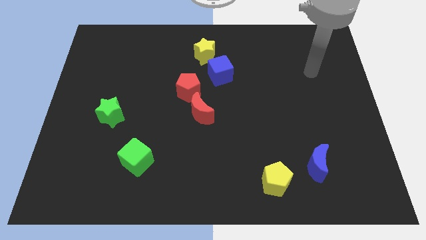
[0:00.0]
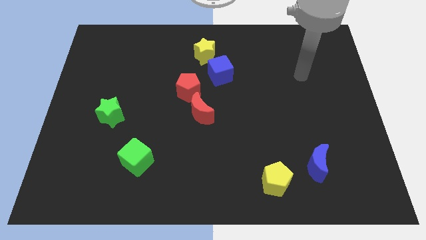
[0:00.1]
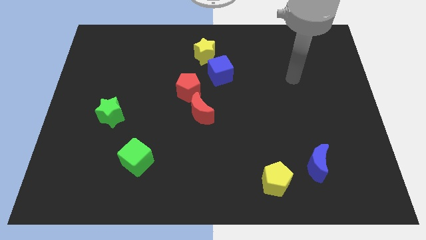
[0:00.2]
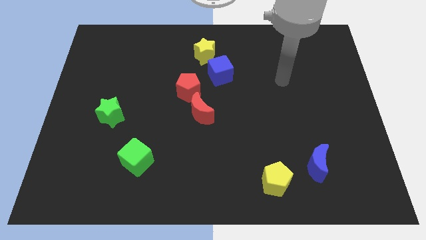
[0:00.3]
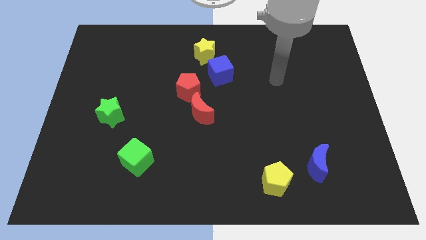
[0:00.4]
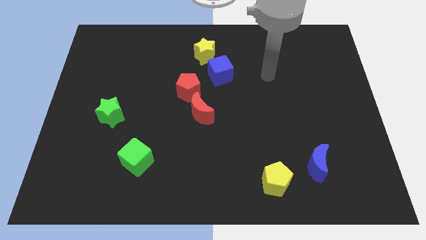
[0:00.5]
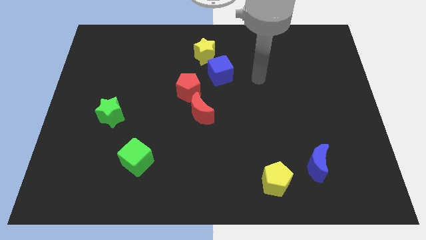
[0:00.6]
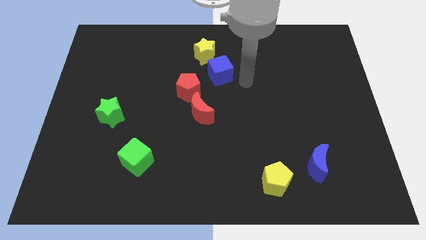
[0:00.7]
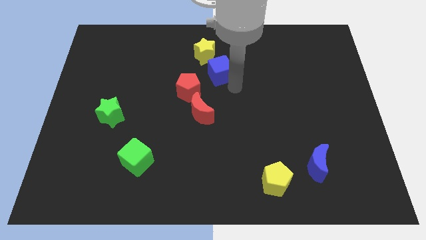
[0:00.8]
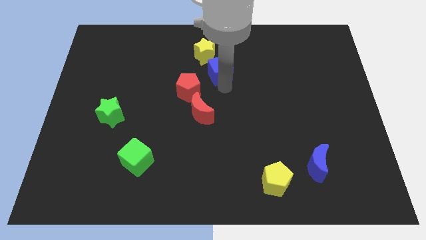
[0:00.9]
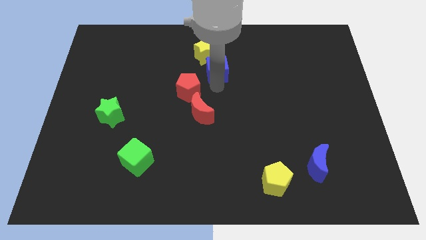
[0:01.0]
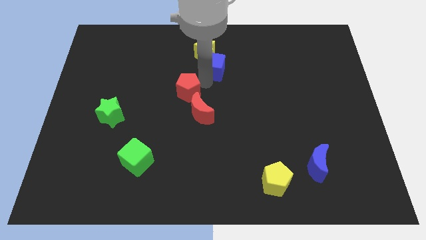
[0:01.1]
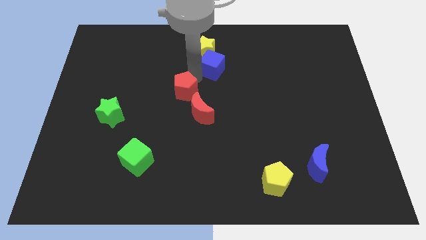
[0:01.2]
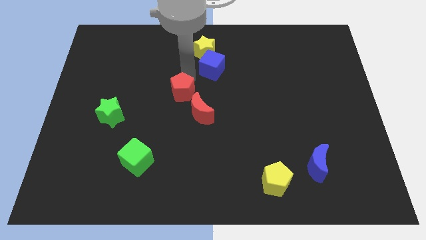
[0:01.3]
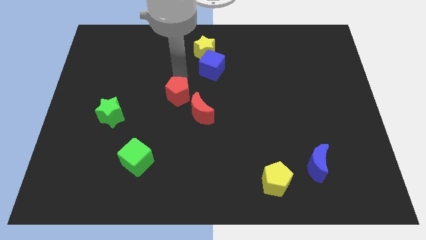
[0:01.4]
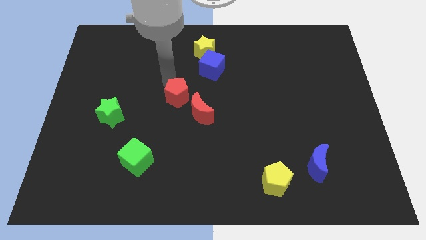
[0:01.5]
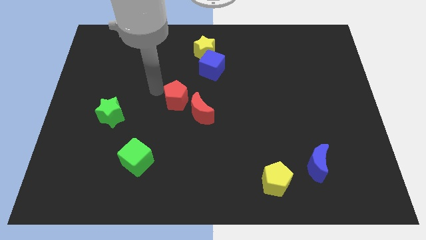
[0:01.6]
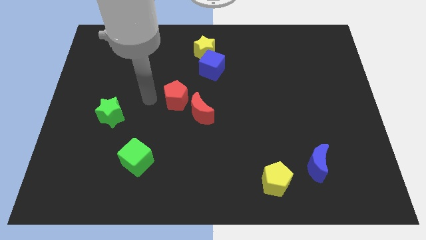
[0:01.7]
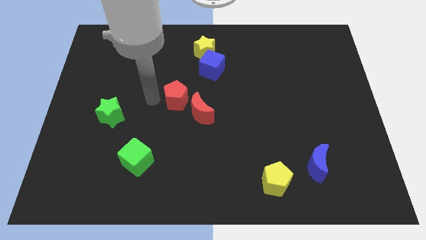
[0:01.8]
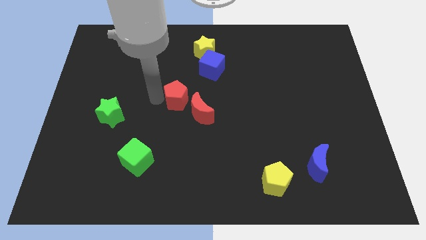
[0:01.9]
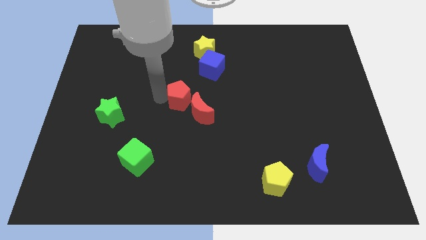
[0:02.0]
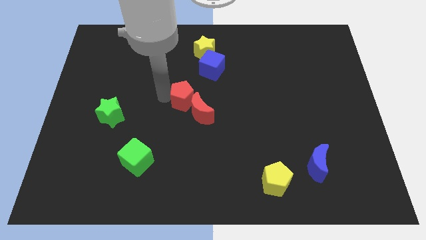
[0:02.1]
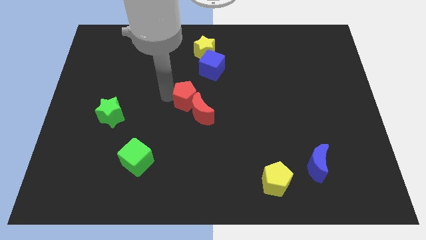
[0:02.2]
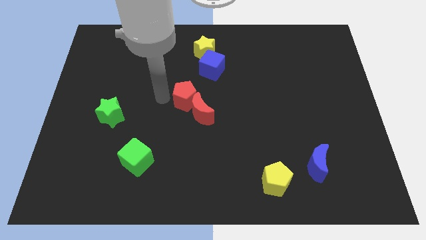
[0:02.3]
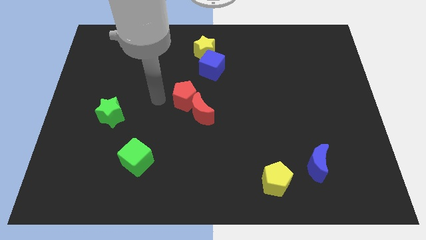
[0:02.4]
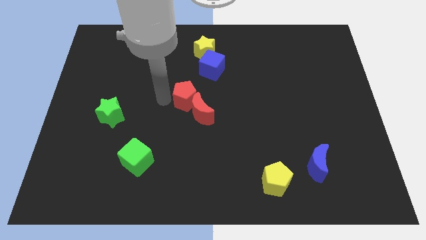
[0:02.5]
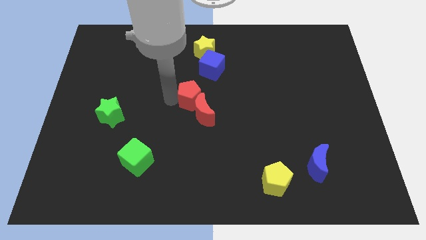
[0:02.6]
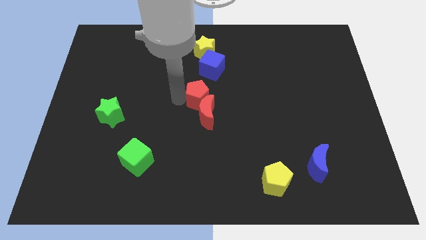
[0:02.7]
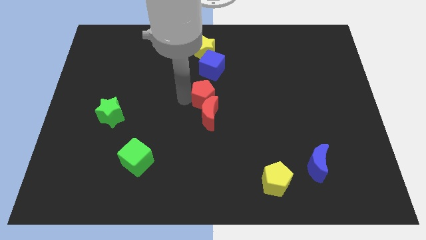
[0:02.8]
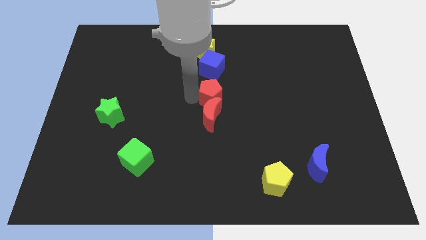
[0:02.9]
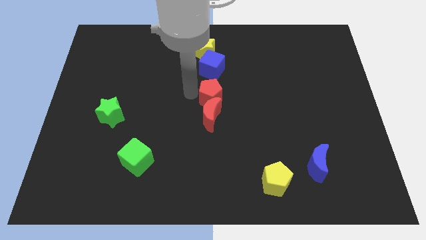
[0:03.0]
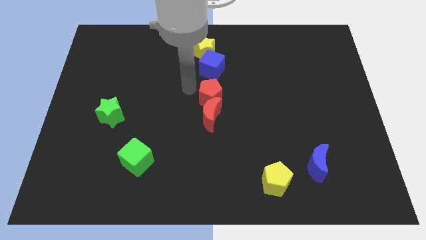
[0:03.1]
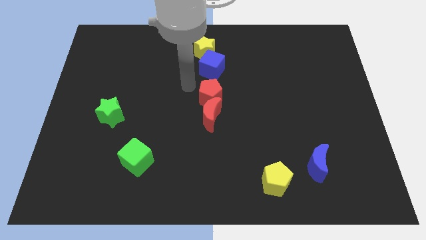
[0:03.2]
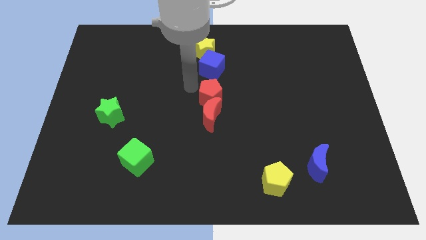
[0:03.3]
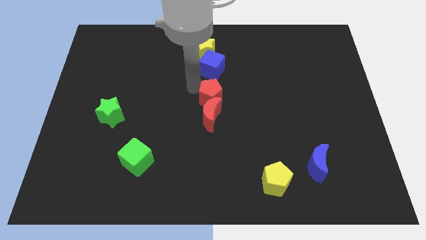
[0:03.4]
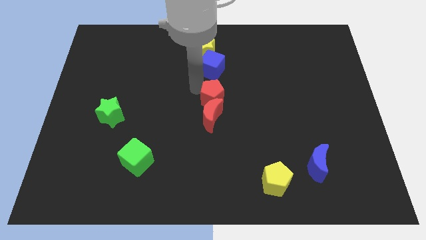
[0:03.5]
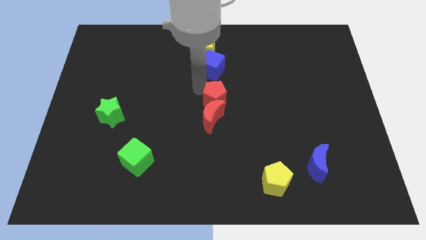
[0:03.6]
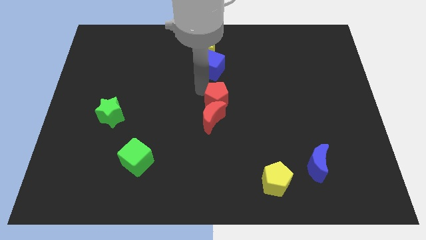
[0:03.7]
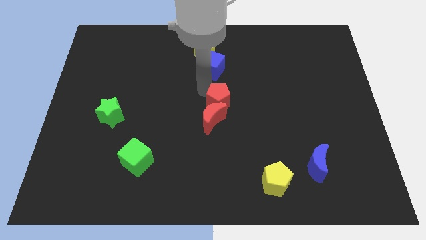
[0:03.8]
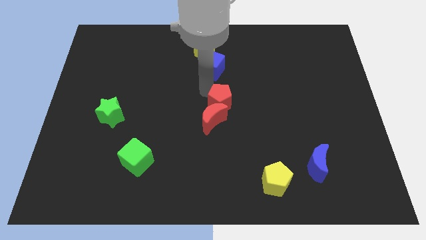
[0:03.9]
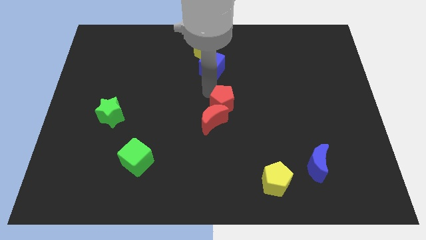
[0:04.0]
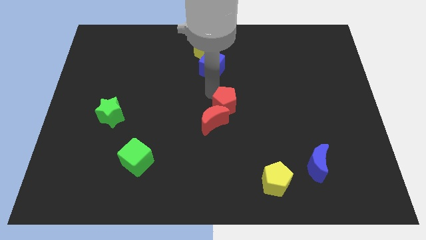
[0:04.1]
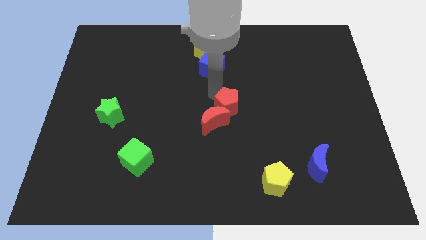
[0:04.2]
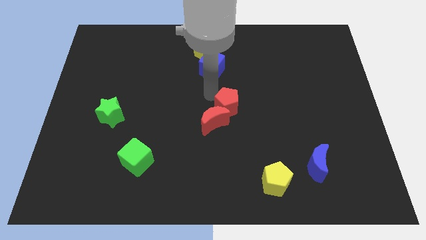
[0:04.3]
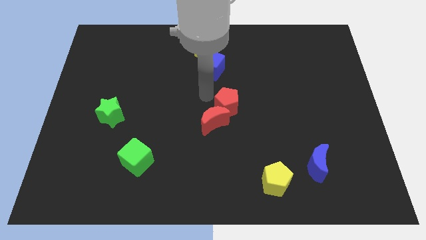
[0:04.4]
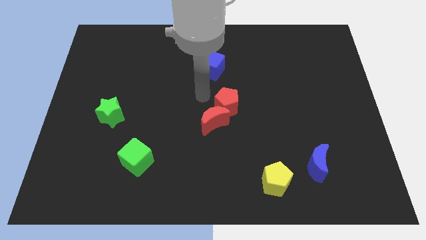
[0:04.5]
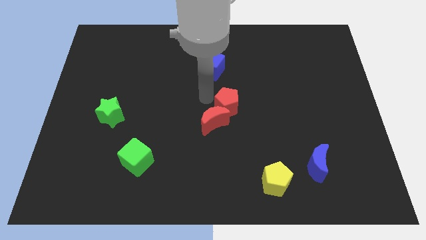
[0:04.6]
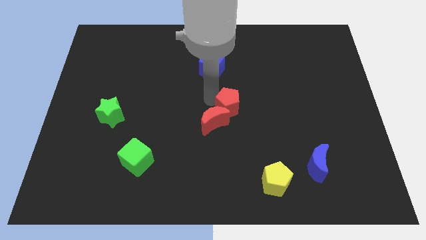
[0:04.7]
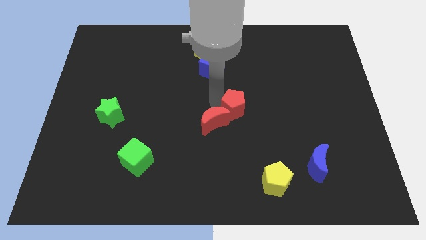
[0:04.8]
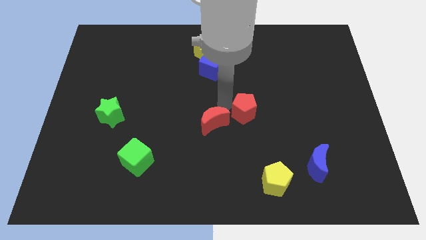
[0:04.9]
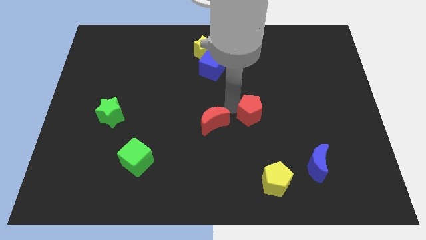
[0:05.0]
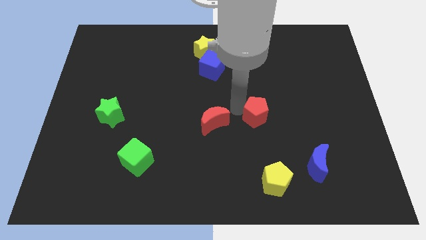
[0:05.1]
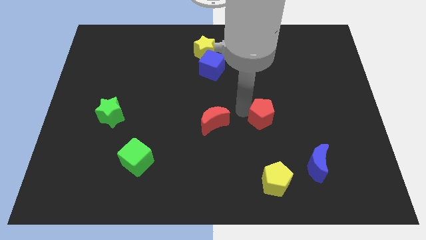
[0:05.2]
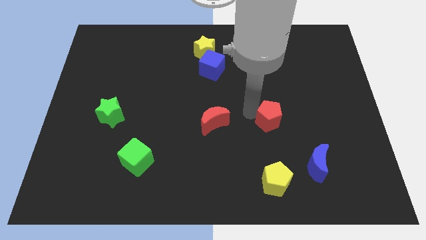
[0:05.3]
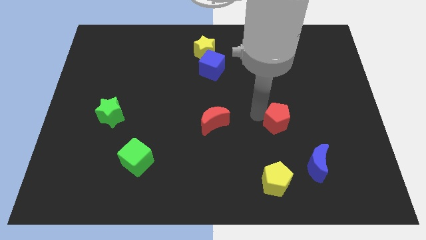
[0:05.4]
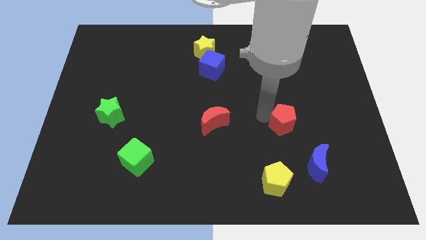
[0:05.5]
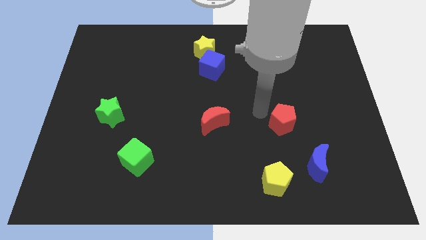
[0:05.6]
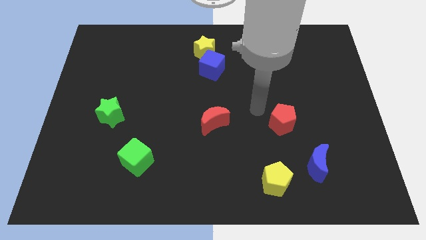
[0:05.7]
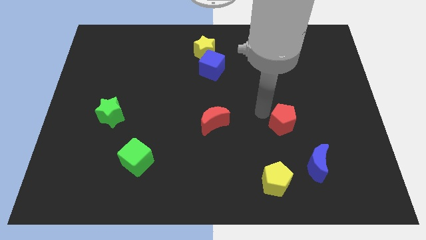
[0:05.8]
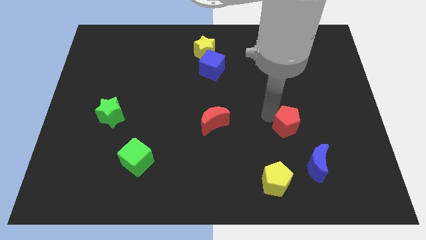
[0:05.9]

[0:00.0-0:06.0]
move the red pentagon down and to the right diagonally

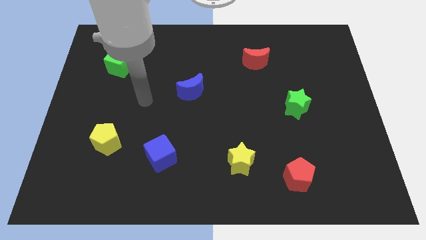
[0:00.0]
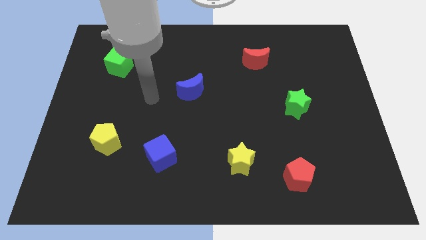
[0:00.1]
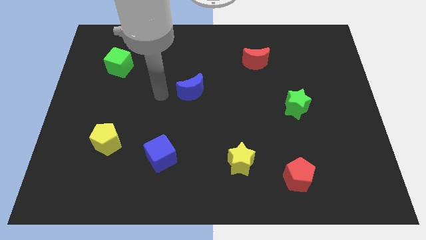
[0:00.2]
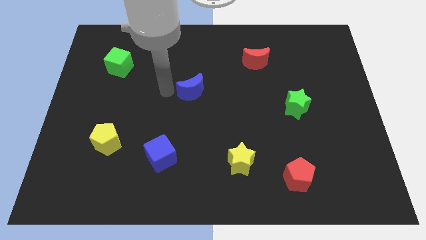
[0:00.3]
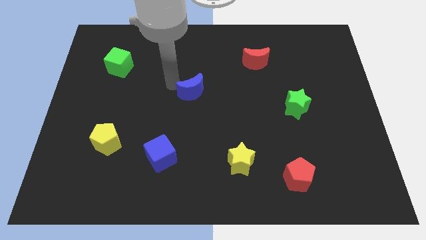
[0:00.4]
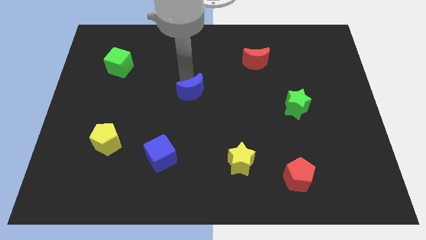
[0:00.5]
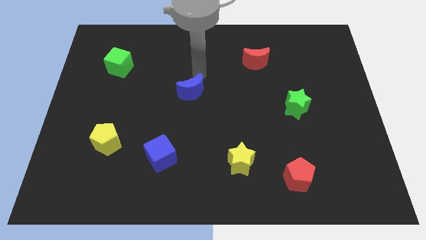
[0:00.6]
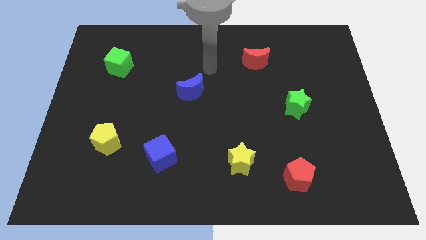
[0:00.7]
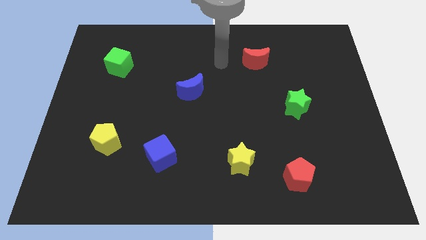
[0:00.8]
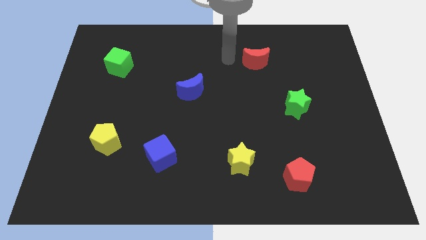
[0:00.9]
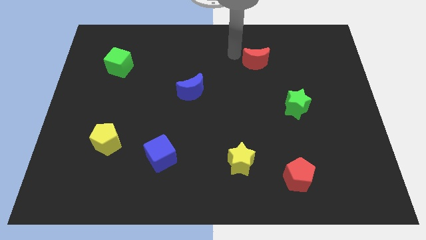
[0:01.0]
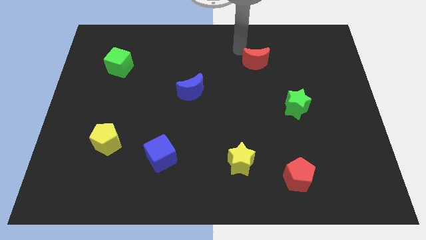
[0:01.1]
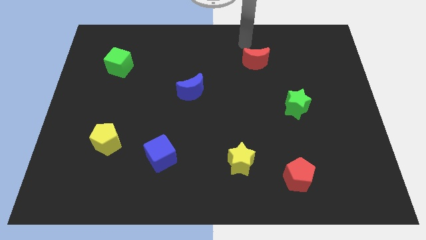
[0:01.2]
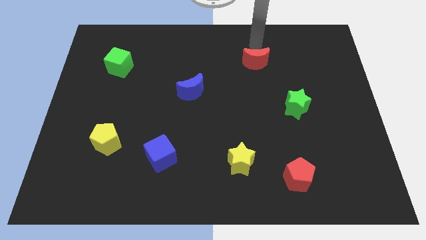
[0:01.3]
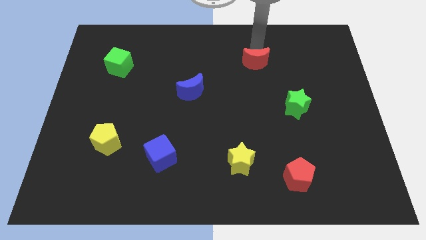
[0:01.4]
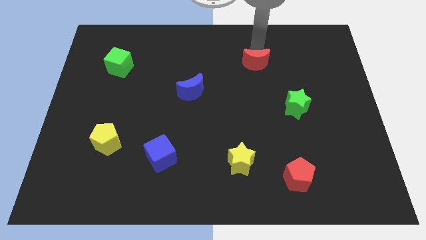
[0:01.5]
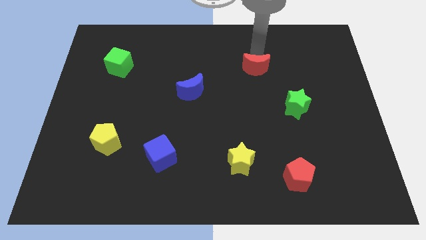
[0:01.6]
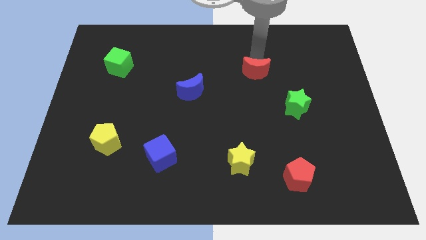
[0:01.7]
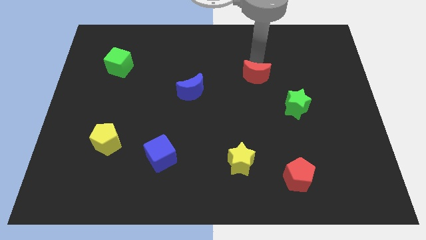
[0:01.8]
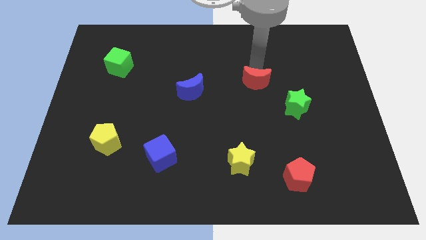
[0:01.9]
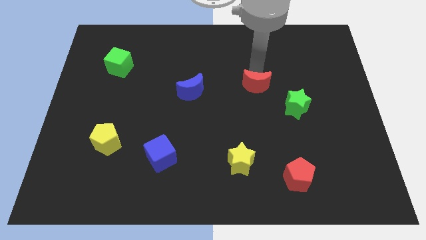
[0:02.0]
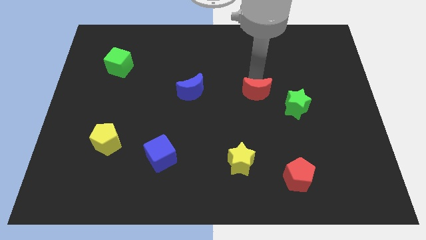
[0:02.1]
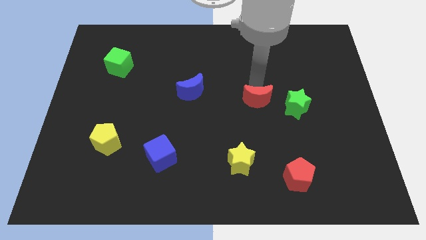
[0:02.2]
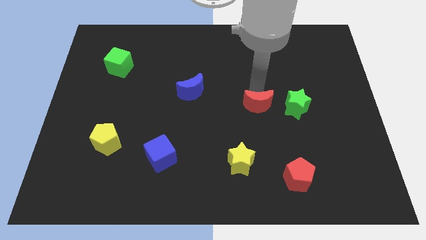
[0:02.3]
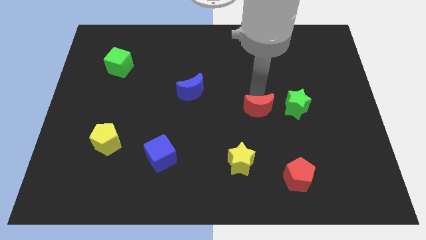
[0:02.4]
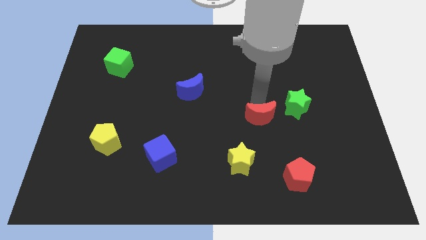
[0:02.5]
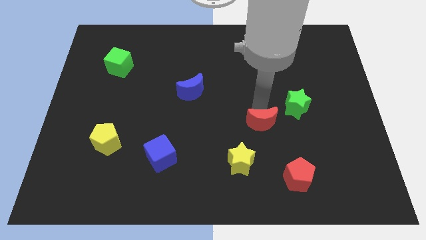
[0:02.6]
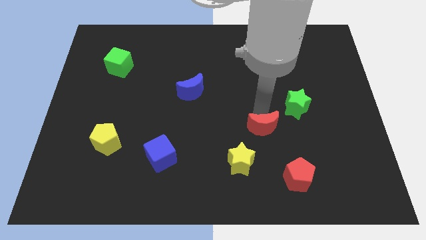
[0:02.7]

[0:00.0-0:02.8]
push the red moon down
